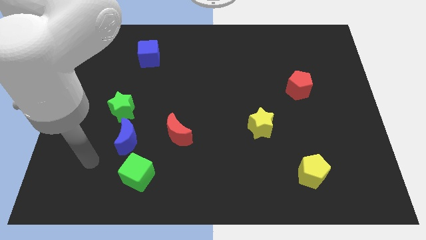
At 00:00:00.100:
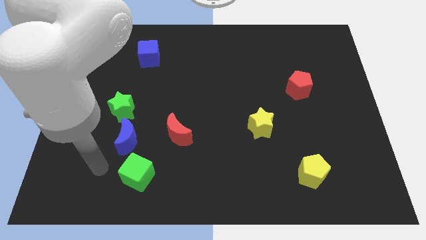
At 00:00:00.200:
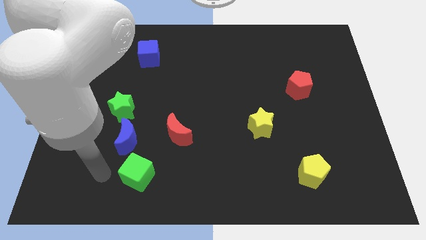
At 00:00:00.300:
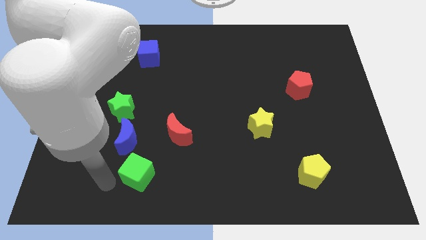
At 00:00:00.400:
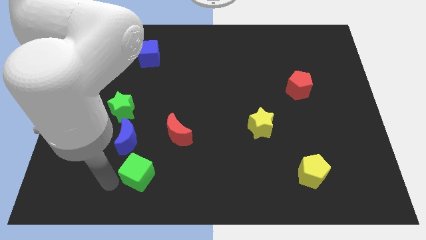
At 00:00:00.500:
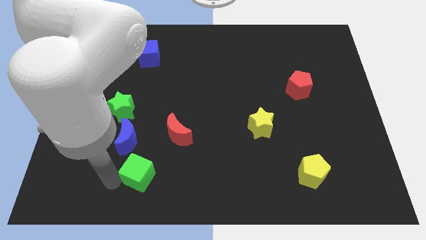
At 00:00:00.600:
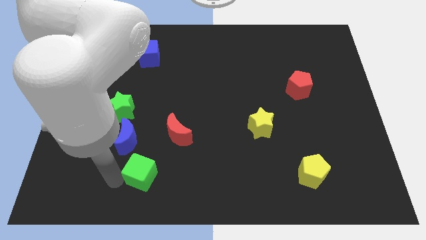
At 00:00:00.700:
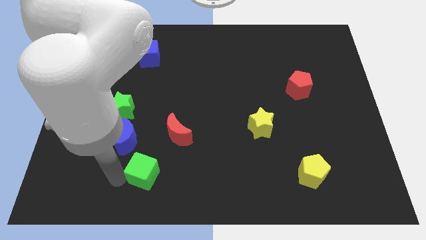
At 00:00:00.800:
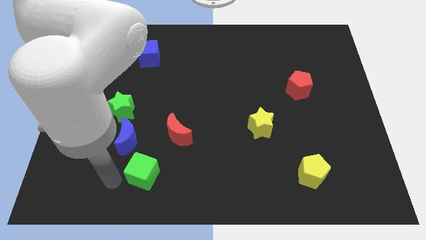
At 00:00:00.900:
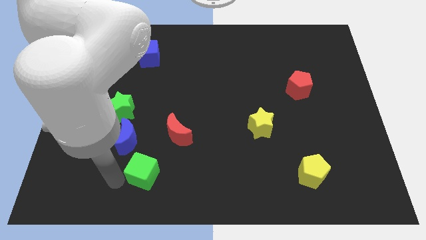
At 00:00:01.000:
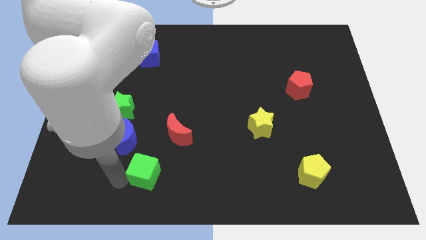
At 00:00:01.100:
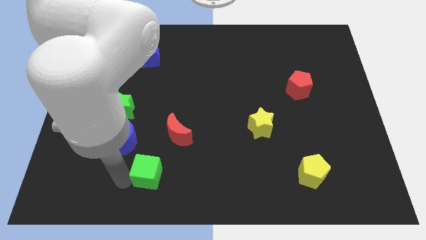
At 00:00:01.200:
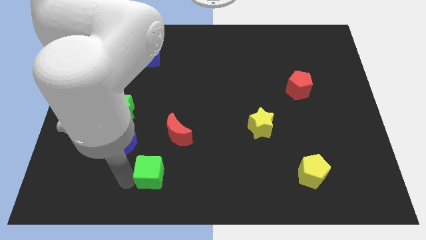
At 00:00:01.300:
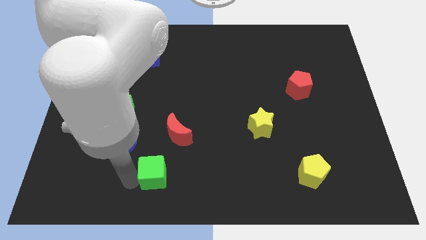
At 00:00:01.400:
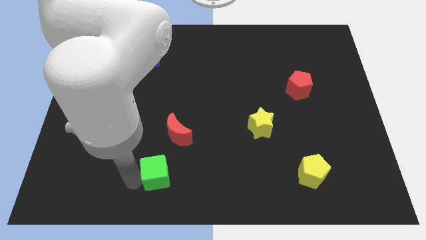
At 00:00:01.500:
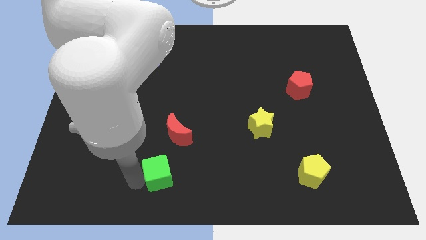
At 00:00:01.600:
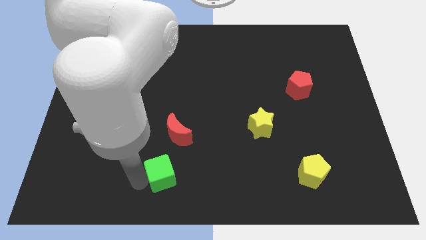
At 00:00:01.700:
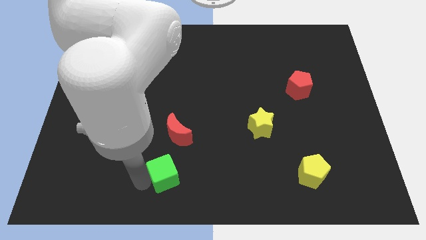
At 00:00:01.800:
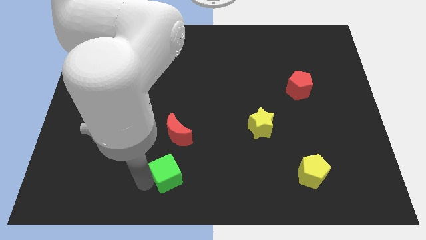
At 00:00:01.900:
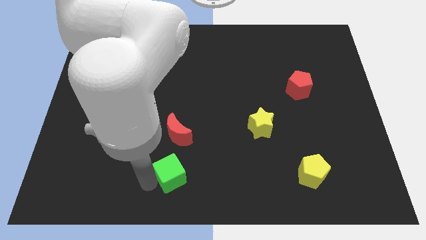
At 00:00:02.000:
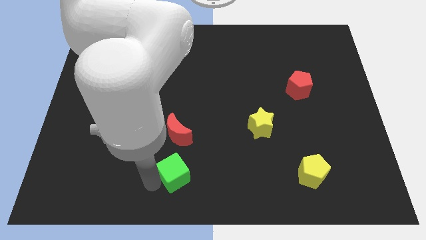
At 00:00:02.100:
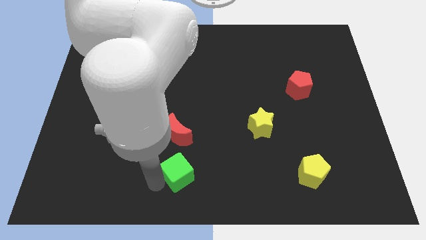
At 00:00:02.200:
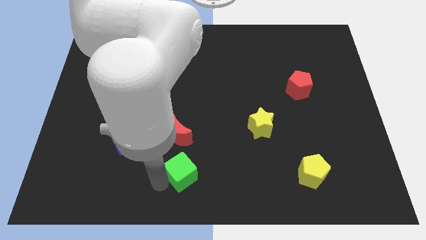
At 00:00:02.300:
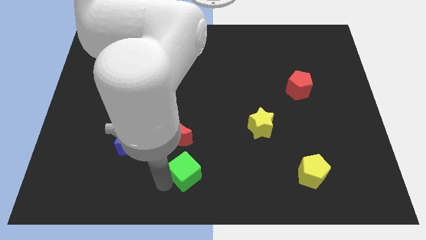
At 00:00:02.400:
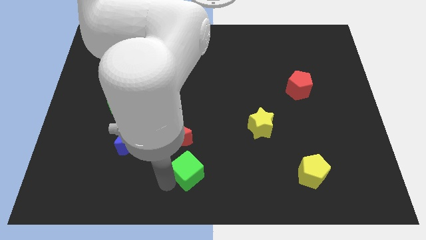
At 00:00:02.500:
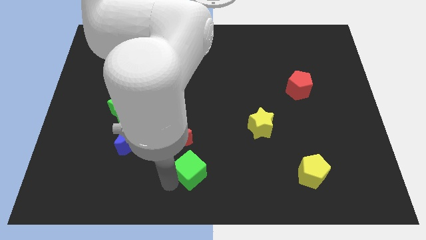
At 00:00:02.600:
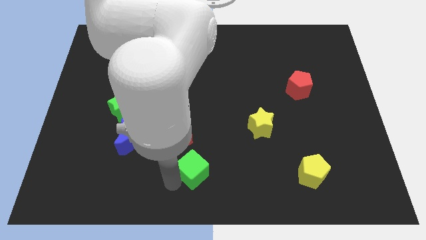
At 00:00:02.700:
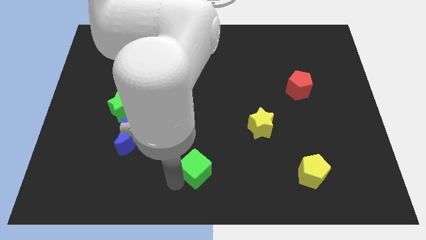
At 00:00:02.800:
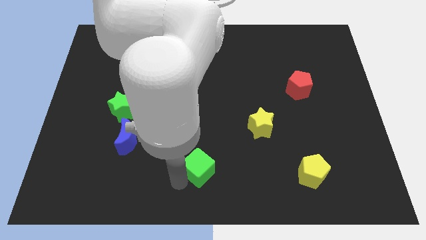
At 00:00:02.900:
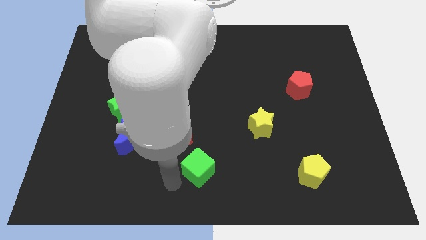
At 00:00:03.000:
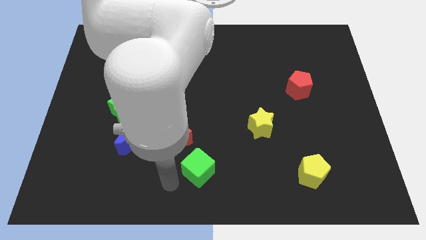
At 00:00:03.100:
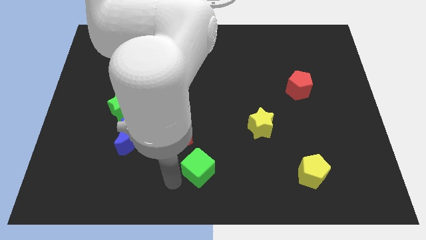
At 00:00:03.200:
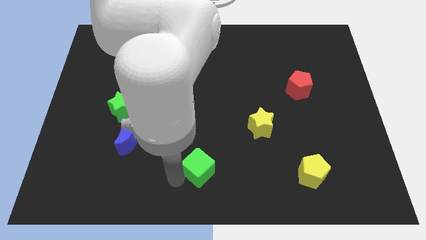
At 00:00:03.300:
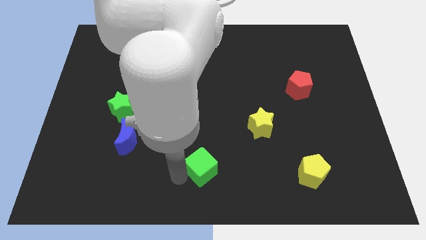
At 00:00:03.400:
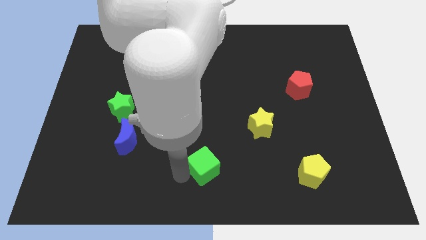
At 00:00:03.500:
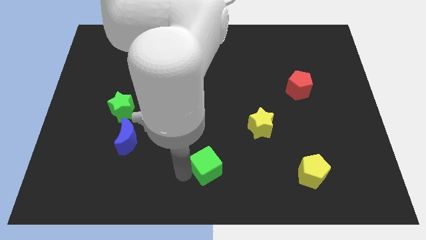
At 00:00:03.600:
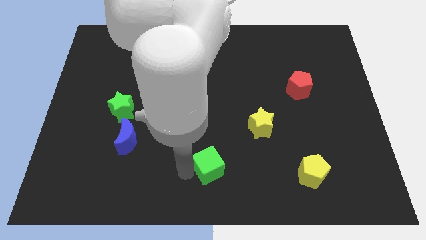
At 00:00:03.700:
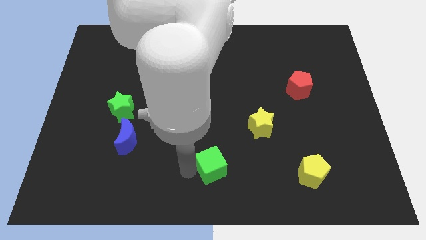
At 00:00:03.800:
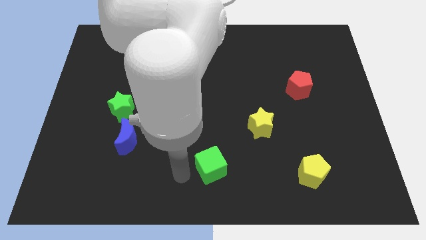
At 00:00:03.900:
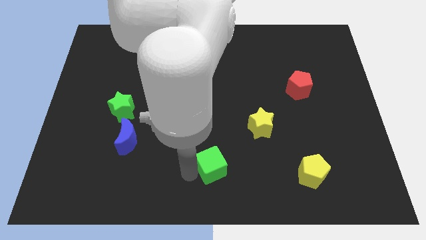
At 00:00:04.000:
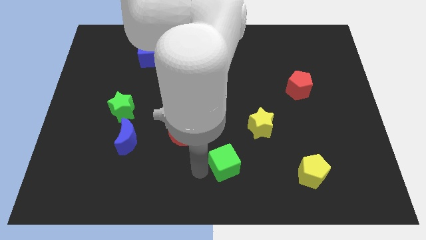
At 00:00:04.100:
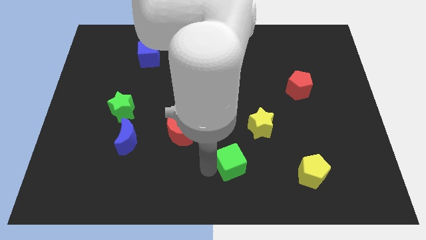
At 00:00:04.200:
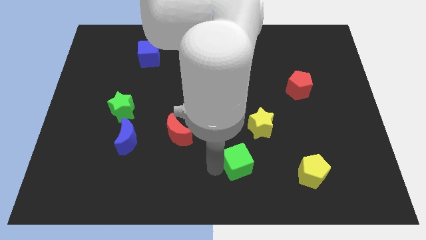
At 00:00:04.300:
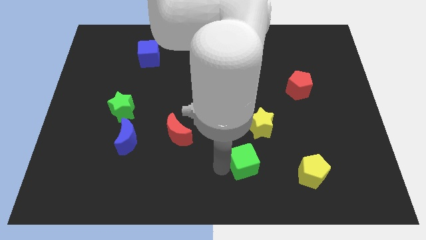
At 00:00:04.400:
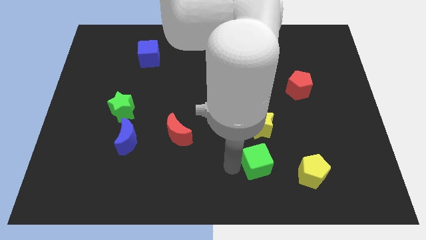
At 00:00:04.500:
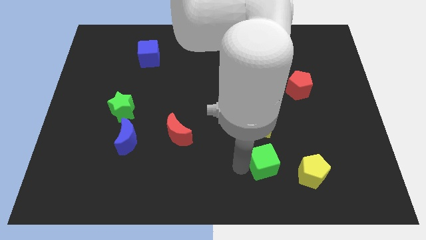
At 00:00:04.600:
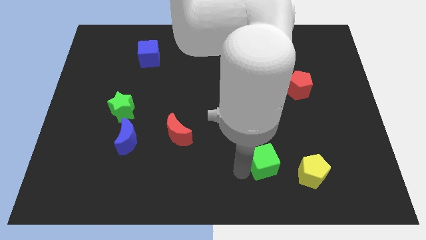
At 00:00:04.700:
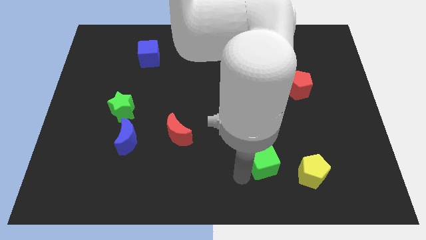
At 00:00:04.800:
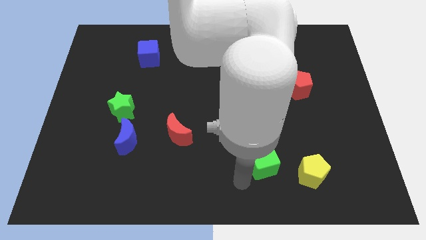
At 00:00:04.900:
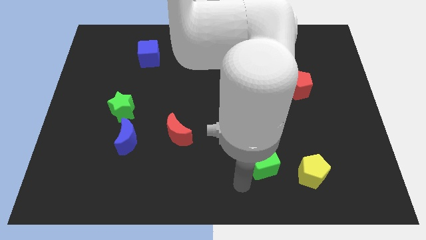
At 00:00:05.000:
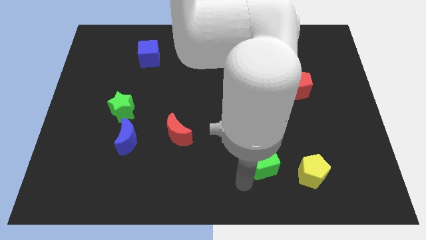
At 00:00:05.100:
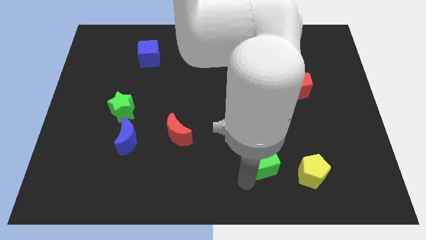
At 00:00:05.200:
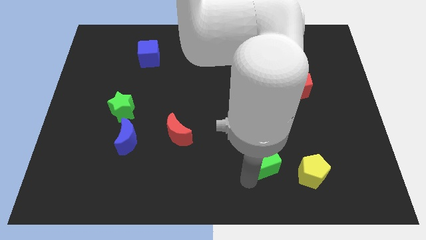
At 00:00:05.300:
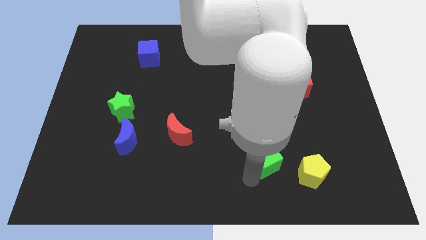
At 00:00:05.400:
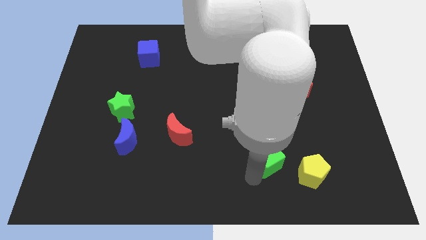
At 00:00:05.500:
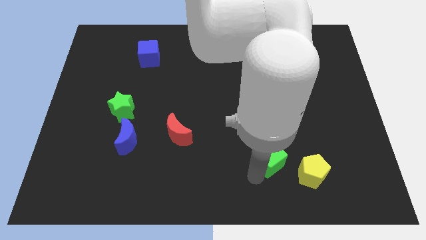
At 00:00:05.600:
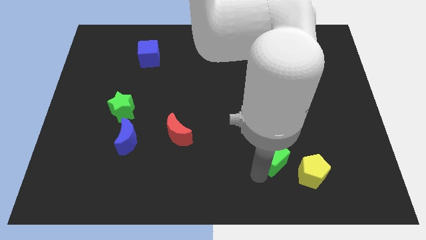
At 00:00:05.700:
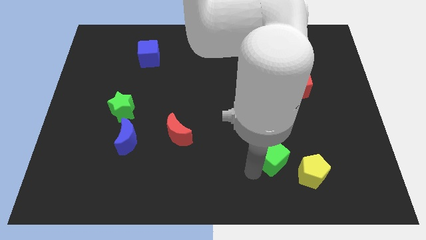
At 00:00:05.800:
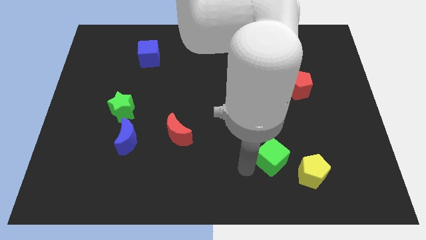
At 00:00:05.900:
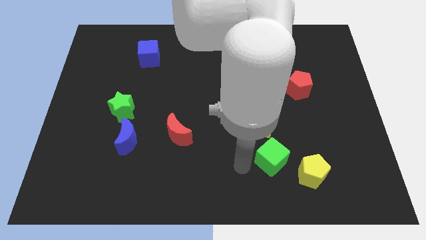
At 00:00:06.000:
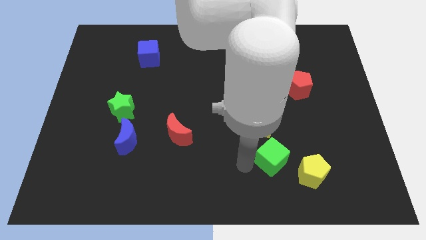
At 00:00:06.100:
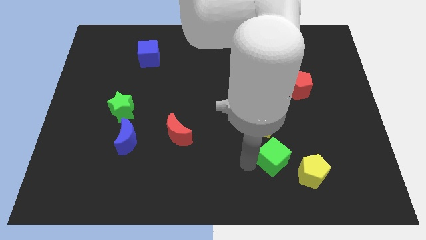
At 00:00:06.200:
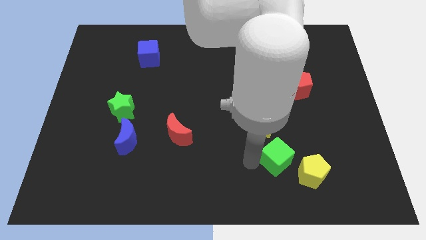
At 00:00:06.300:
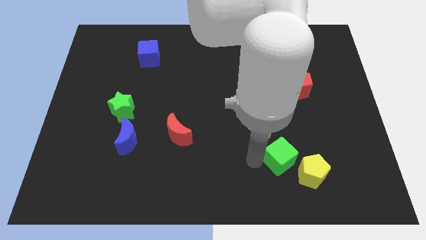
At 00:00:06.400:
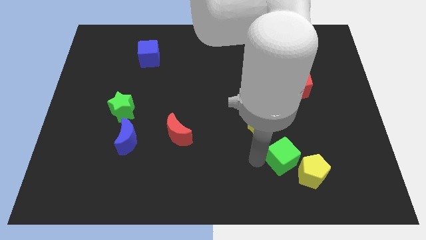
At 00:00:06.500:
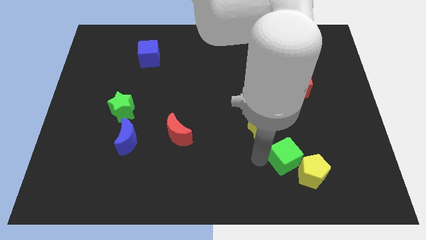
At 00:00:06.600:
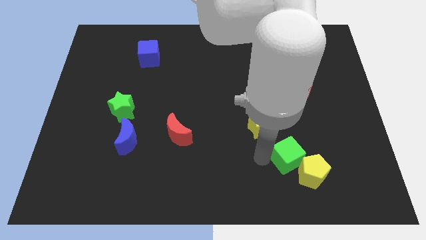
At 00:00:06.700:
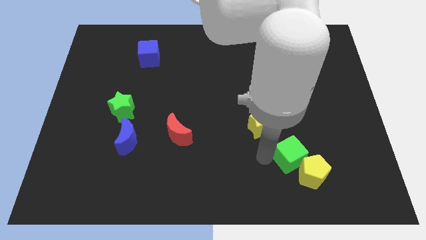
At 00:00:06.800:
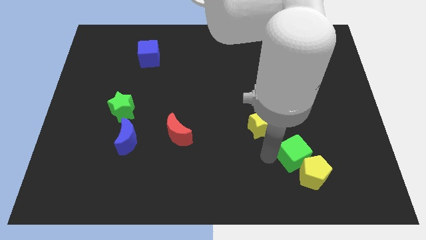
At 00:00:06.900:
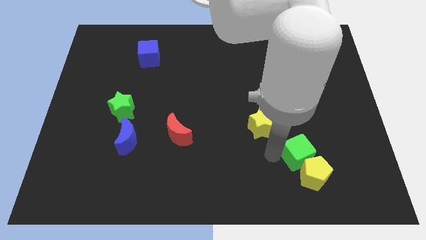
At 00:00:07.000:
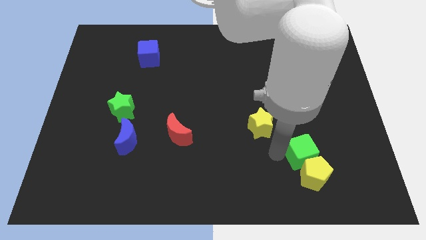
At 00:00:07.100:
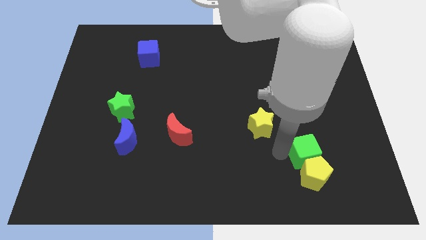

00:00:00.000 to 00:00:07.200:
put the green cube diagonally up and to the right of the yellow pentagon

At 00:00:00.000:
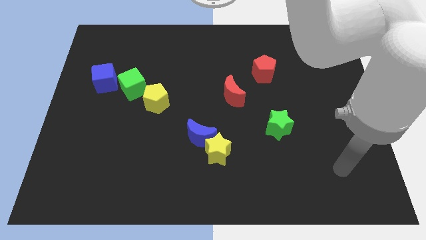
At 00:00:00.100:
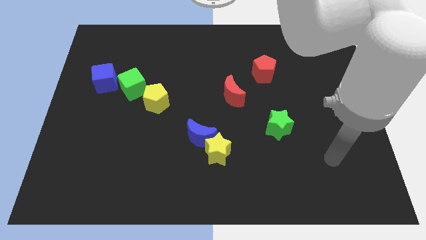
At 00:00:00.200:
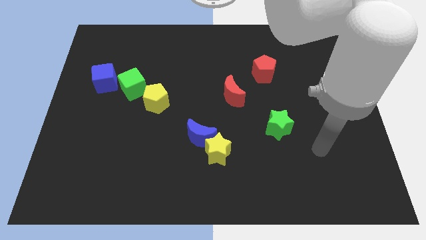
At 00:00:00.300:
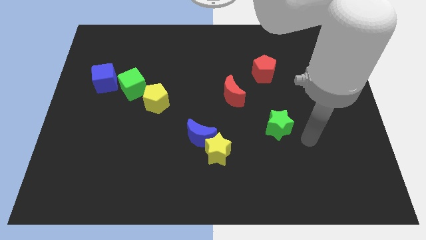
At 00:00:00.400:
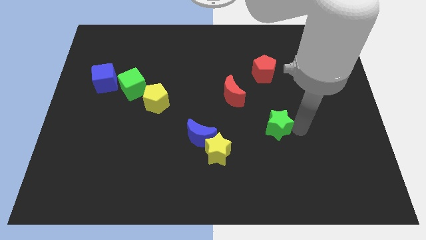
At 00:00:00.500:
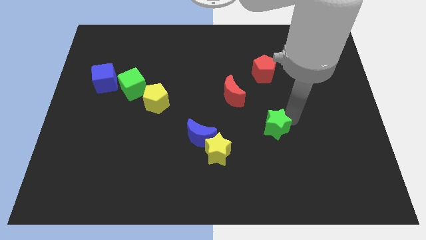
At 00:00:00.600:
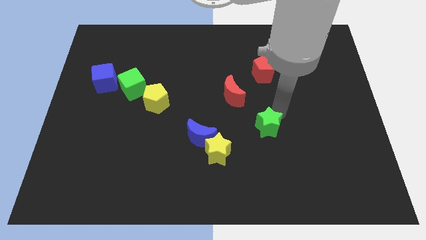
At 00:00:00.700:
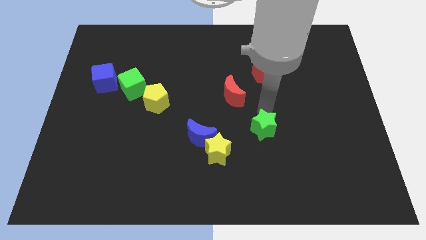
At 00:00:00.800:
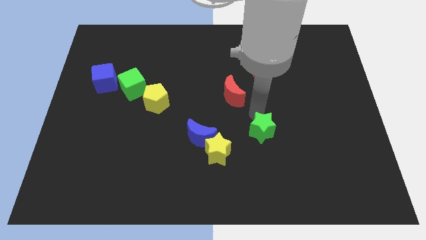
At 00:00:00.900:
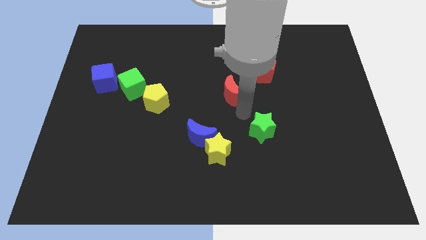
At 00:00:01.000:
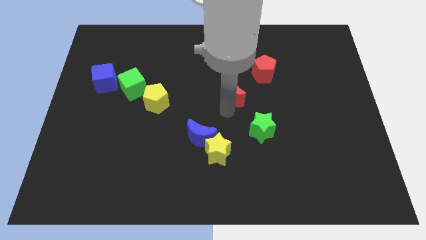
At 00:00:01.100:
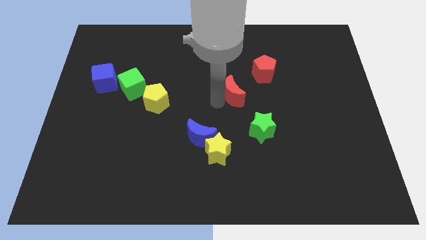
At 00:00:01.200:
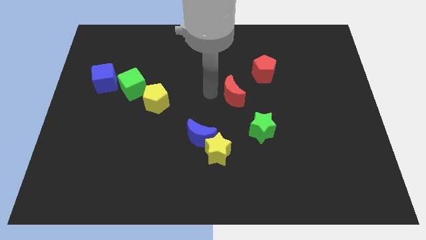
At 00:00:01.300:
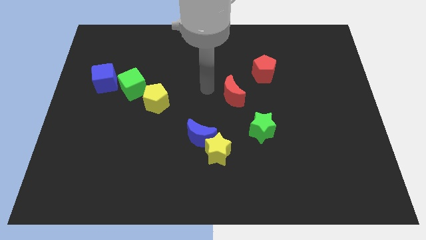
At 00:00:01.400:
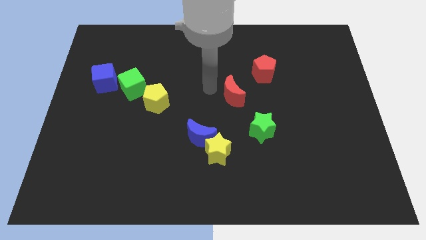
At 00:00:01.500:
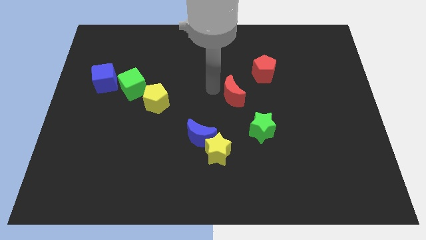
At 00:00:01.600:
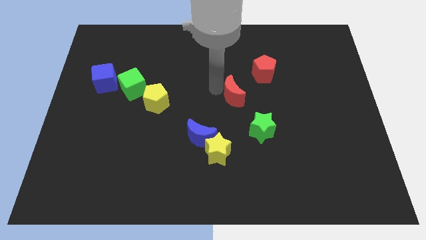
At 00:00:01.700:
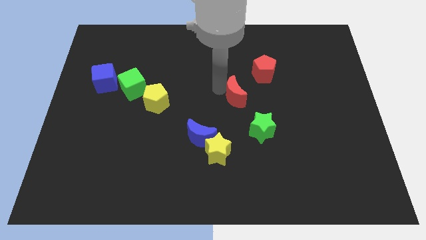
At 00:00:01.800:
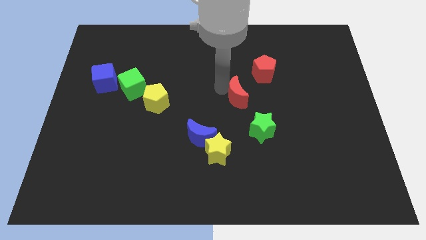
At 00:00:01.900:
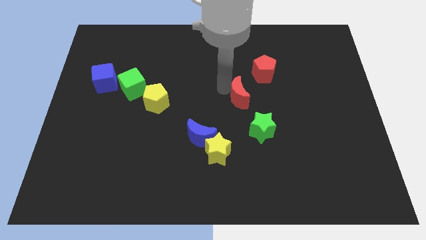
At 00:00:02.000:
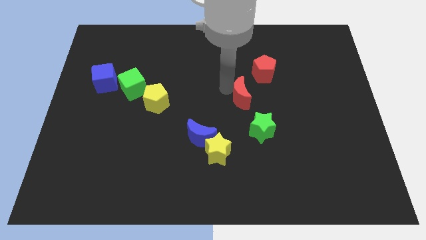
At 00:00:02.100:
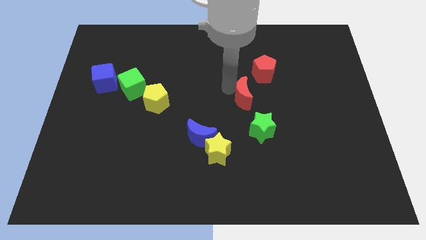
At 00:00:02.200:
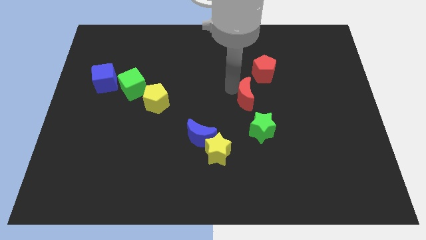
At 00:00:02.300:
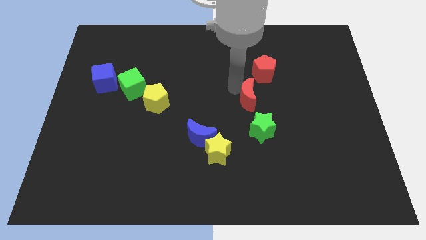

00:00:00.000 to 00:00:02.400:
slide the red moon to the bottom of the red pentagon
